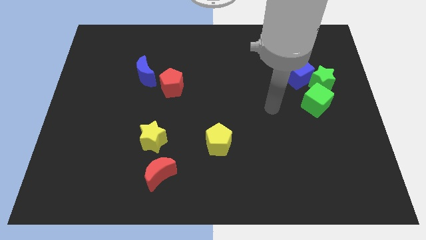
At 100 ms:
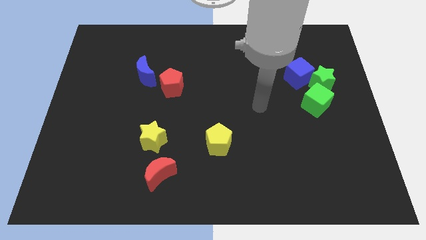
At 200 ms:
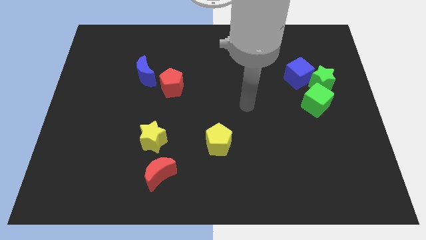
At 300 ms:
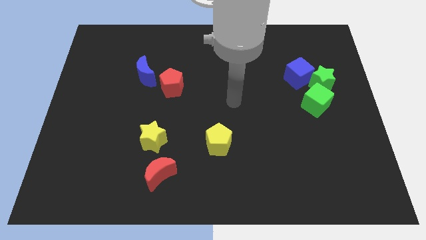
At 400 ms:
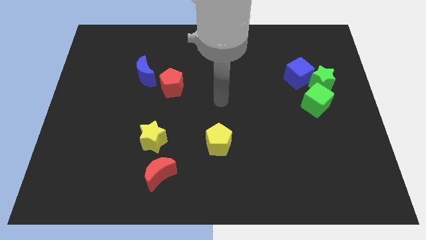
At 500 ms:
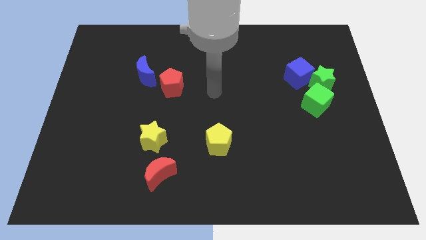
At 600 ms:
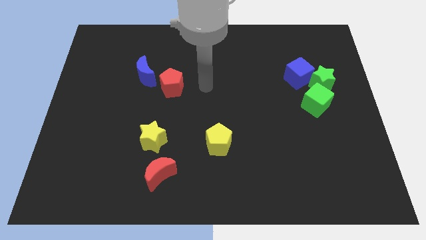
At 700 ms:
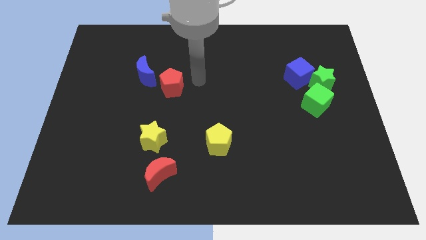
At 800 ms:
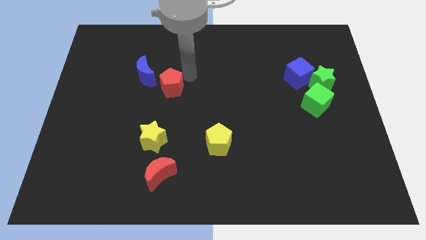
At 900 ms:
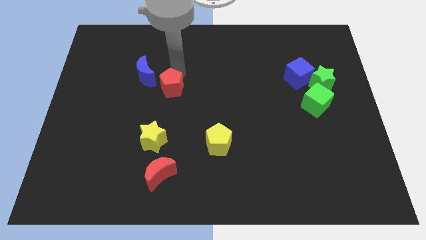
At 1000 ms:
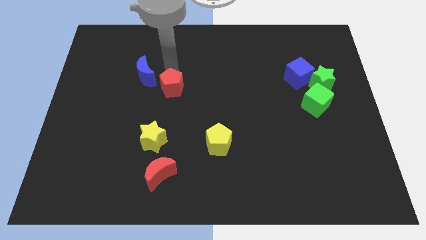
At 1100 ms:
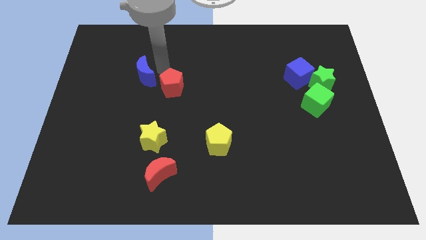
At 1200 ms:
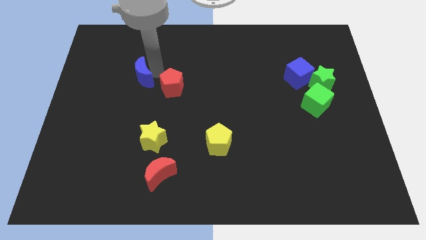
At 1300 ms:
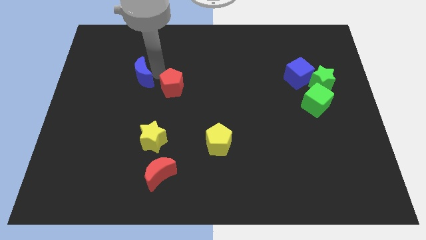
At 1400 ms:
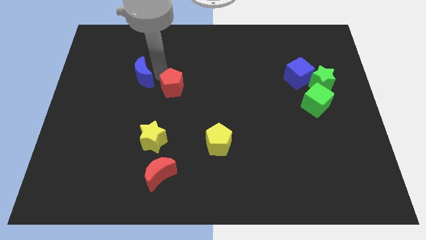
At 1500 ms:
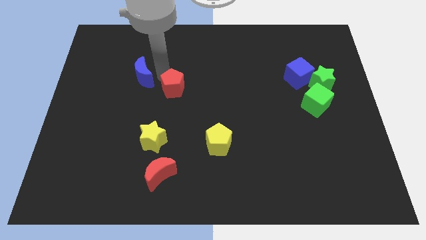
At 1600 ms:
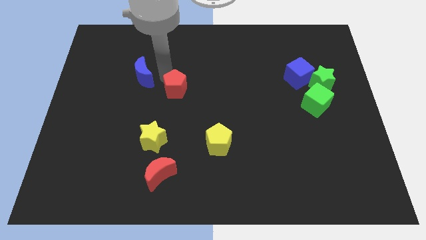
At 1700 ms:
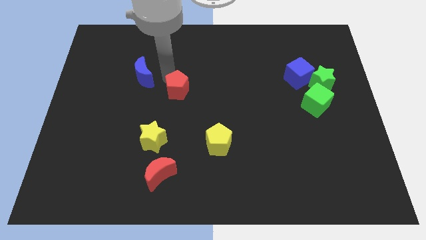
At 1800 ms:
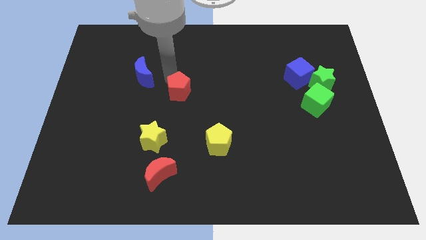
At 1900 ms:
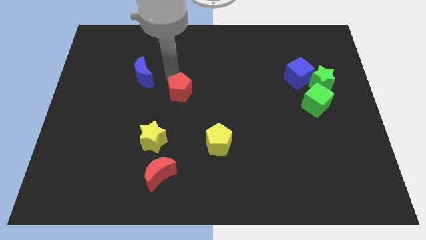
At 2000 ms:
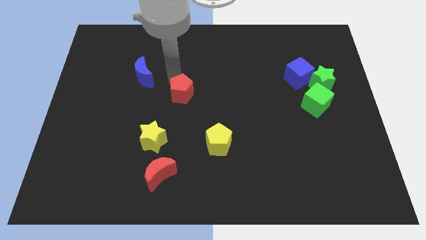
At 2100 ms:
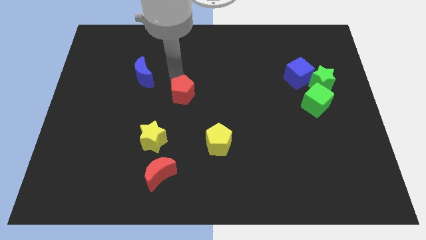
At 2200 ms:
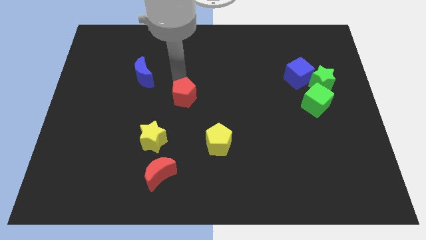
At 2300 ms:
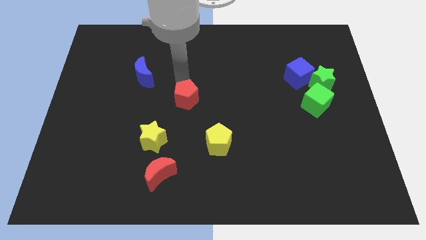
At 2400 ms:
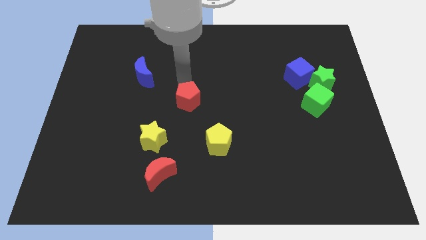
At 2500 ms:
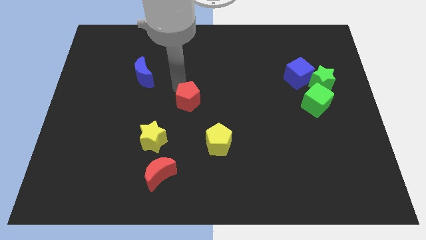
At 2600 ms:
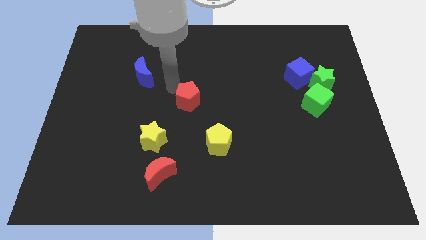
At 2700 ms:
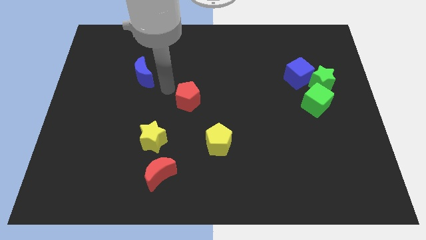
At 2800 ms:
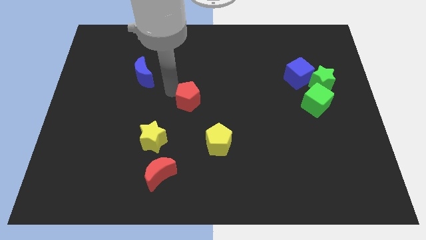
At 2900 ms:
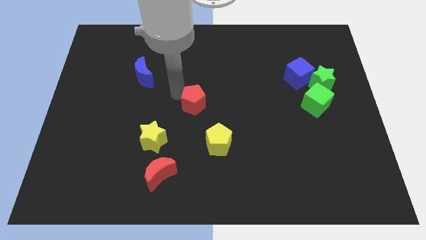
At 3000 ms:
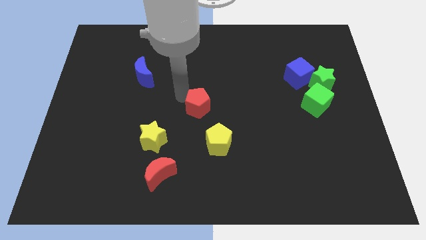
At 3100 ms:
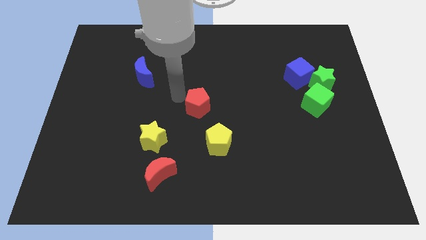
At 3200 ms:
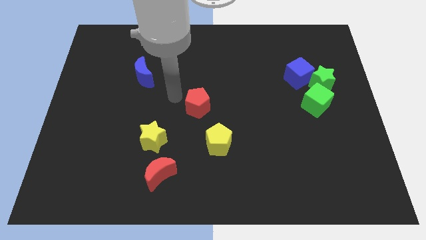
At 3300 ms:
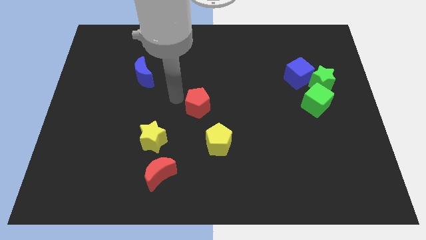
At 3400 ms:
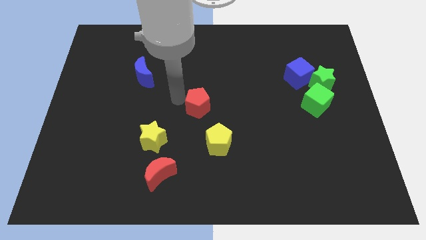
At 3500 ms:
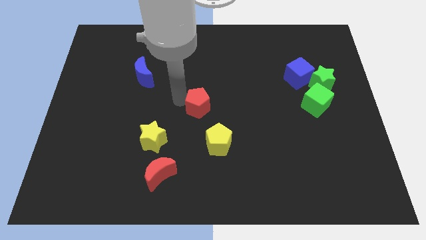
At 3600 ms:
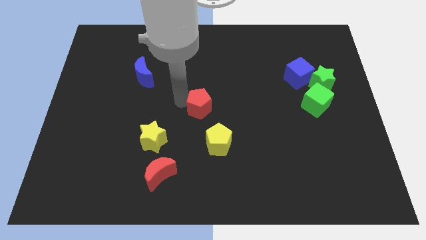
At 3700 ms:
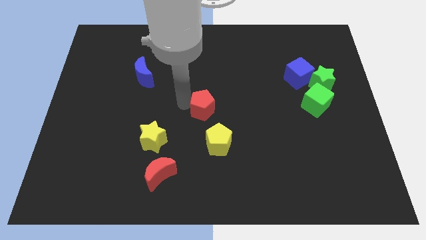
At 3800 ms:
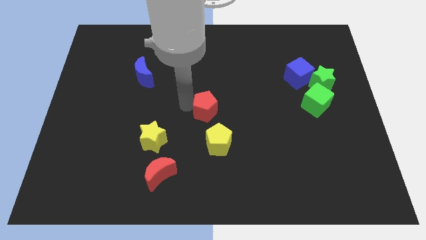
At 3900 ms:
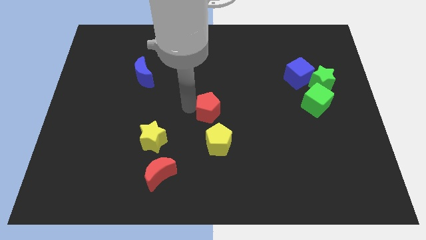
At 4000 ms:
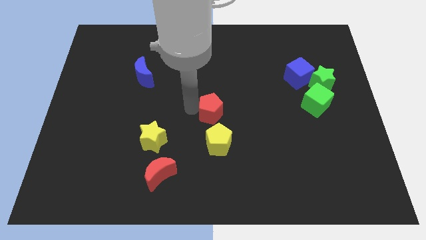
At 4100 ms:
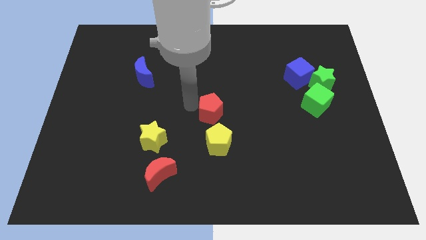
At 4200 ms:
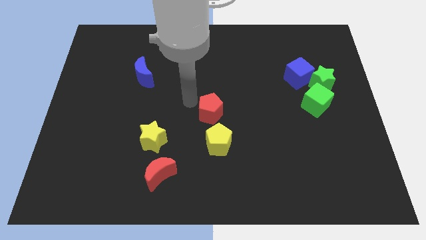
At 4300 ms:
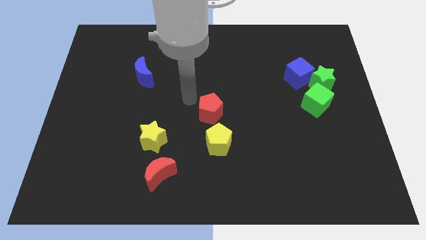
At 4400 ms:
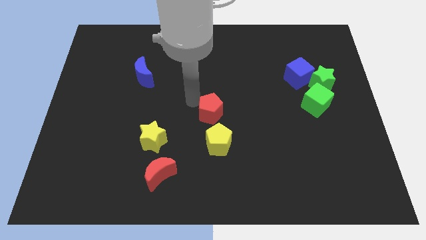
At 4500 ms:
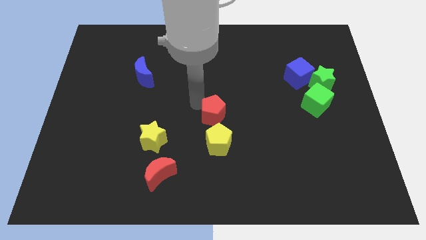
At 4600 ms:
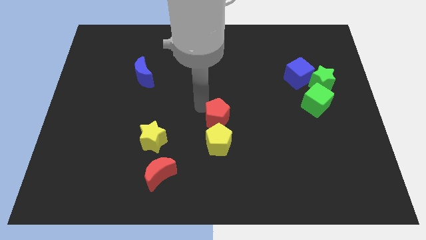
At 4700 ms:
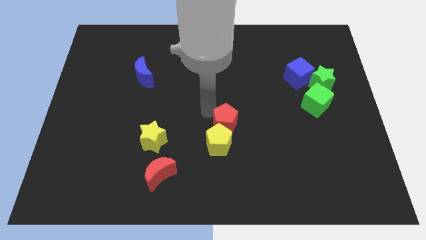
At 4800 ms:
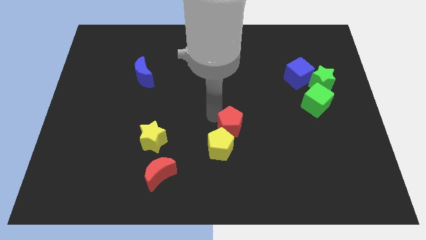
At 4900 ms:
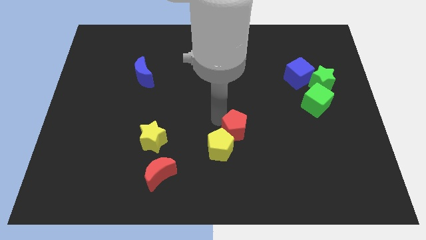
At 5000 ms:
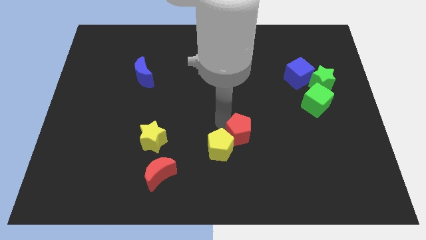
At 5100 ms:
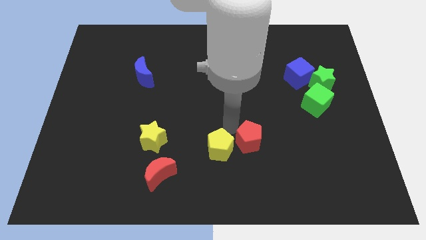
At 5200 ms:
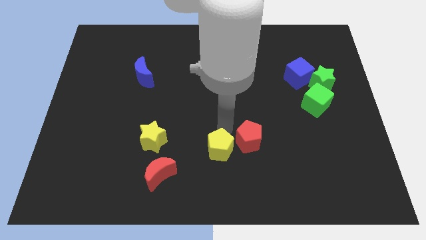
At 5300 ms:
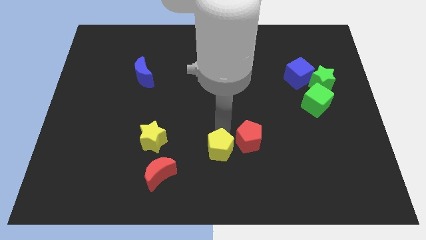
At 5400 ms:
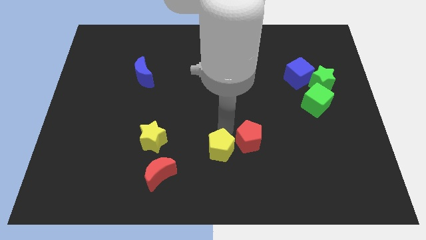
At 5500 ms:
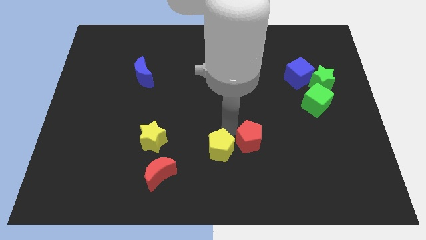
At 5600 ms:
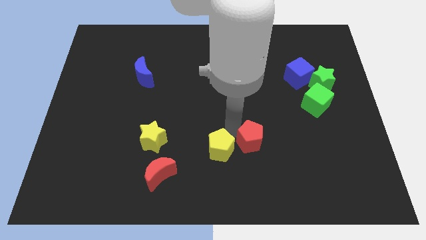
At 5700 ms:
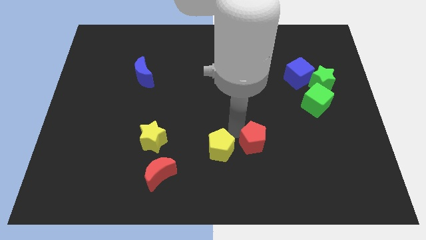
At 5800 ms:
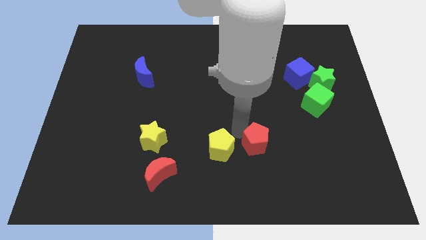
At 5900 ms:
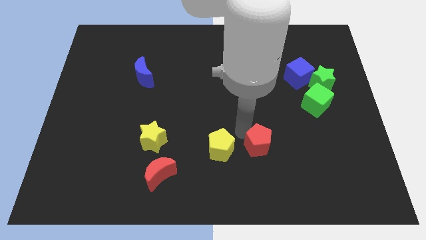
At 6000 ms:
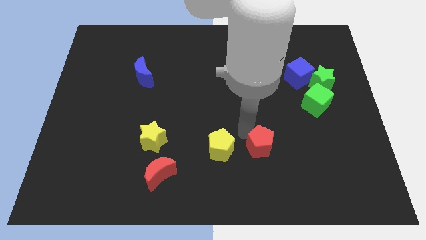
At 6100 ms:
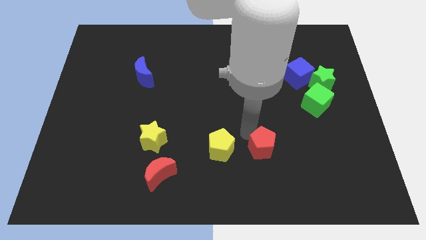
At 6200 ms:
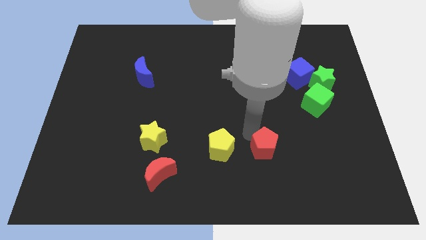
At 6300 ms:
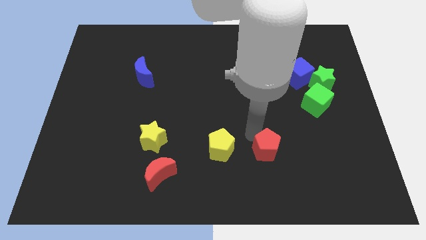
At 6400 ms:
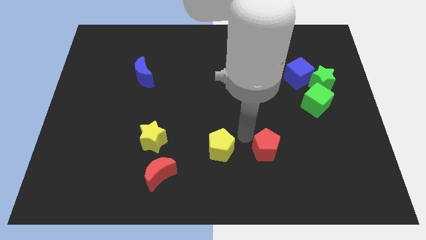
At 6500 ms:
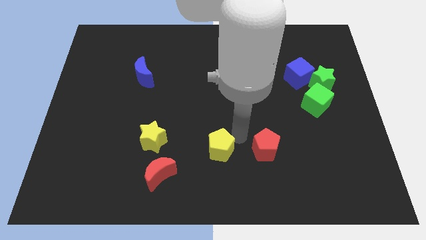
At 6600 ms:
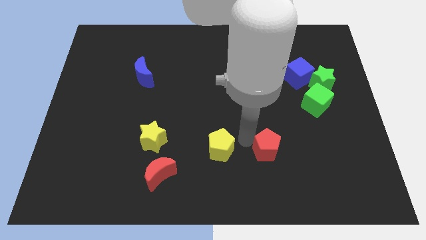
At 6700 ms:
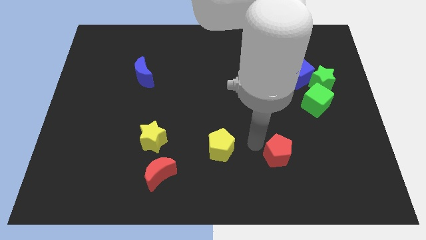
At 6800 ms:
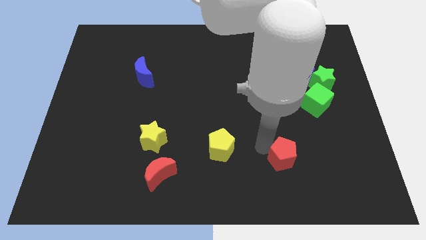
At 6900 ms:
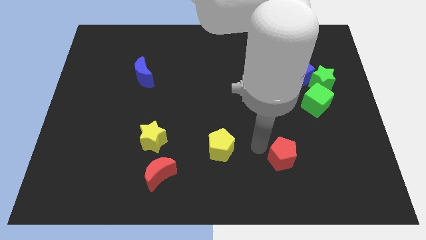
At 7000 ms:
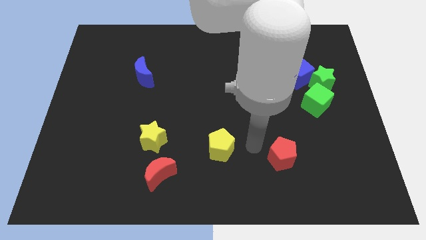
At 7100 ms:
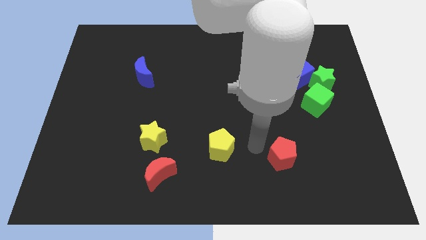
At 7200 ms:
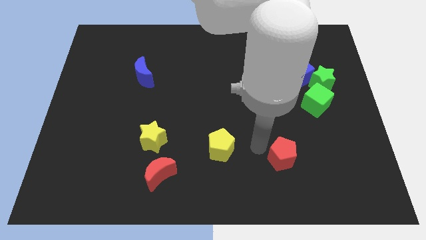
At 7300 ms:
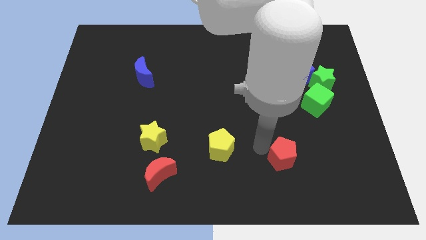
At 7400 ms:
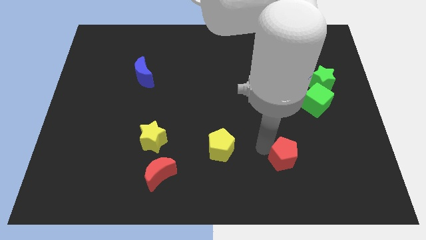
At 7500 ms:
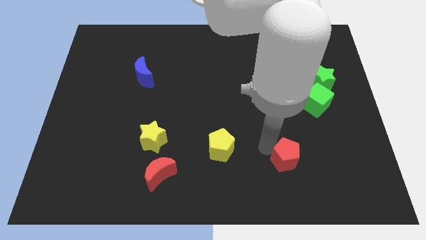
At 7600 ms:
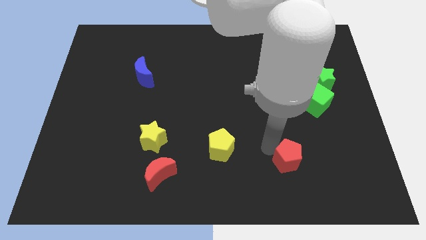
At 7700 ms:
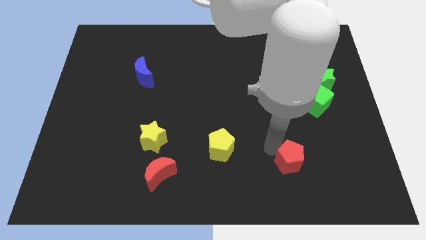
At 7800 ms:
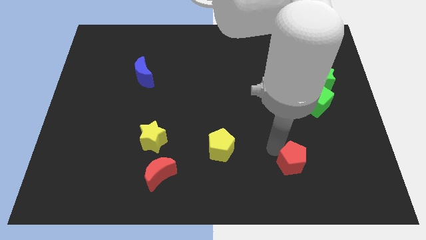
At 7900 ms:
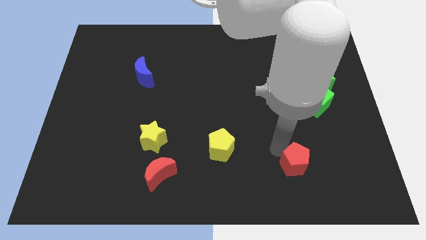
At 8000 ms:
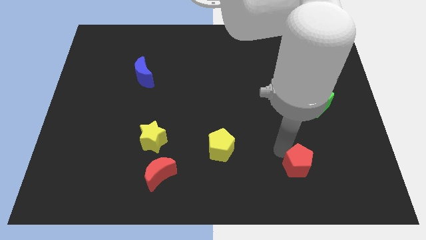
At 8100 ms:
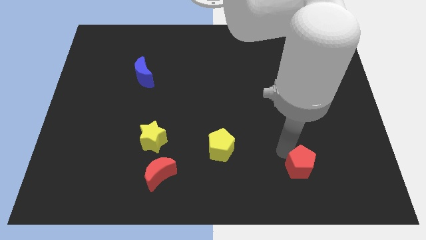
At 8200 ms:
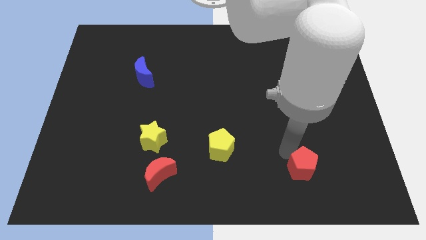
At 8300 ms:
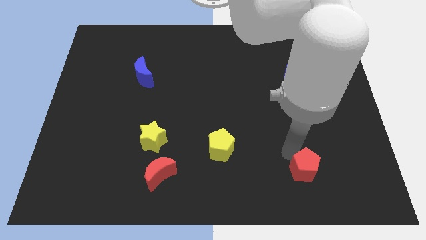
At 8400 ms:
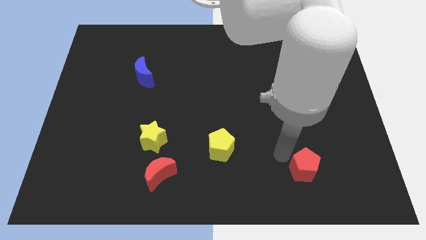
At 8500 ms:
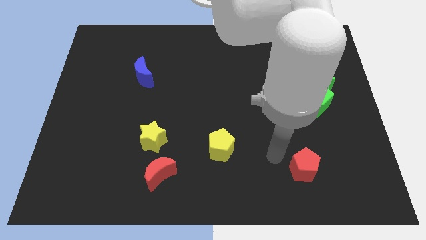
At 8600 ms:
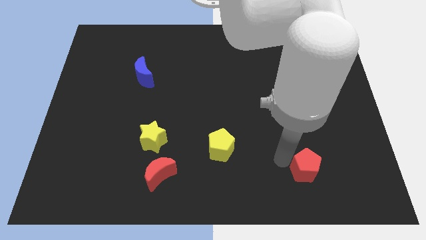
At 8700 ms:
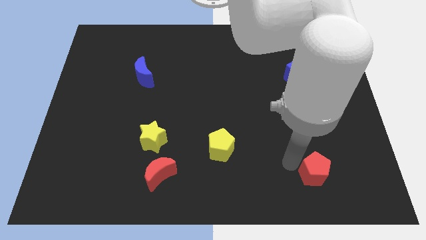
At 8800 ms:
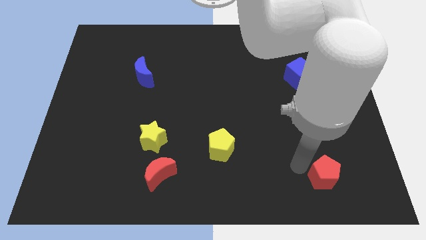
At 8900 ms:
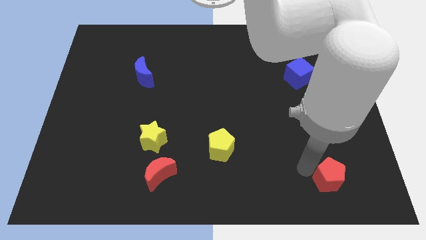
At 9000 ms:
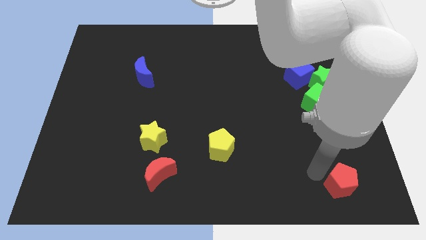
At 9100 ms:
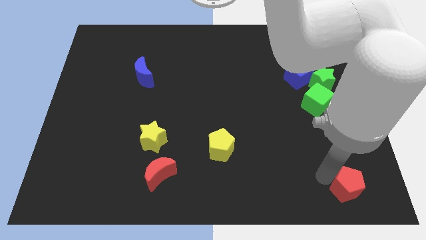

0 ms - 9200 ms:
push the red pentagon to the bottom right corner
